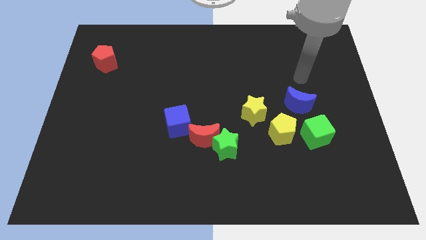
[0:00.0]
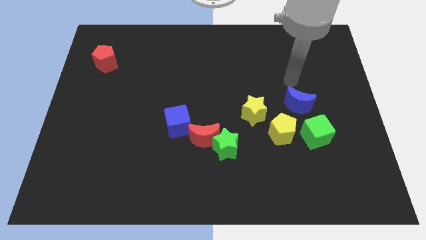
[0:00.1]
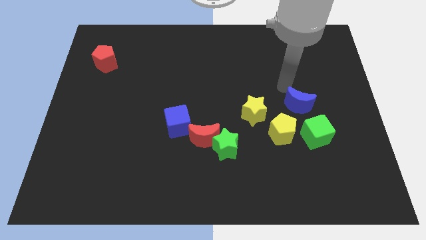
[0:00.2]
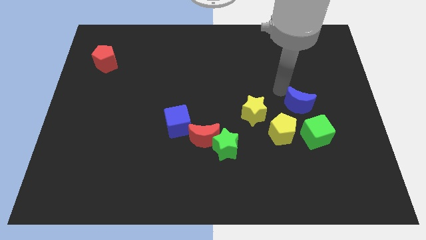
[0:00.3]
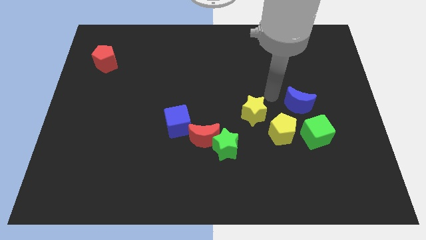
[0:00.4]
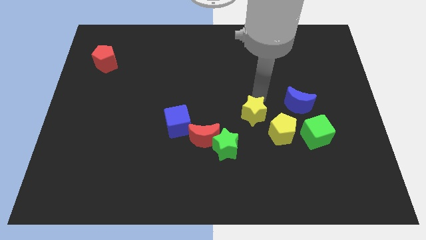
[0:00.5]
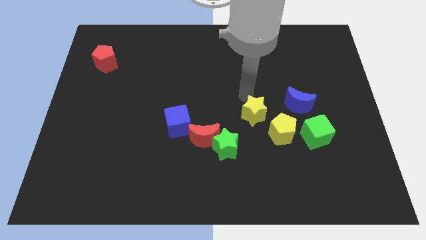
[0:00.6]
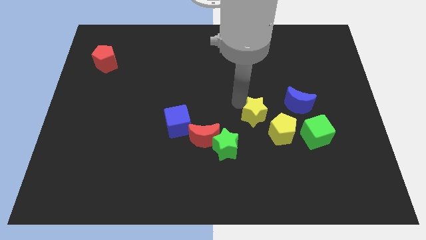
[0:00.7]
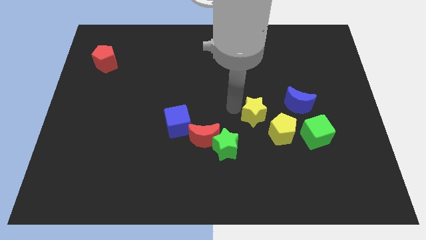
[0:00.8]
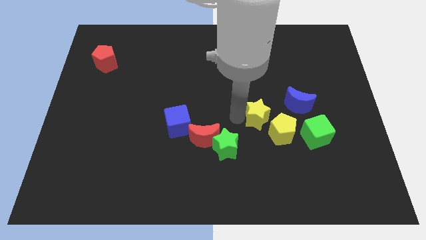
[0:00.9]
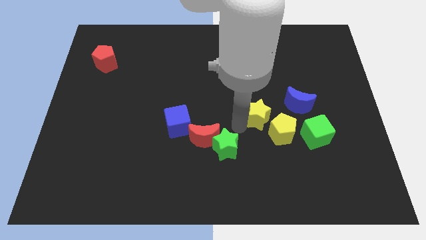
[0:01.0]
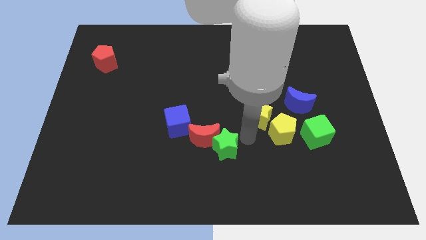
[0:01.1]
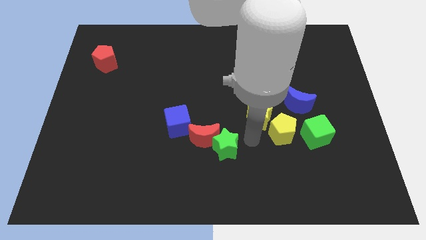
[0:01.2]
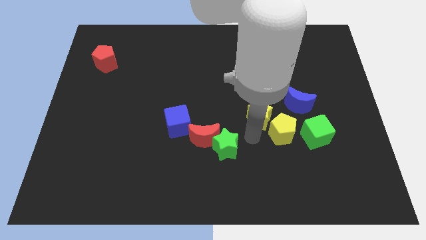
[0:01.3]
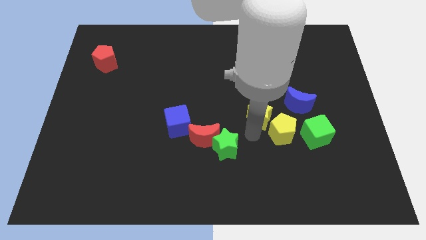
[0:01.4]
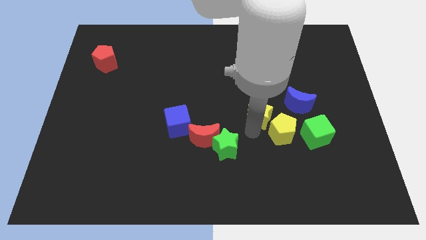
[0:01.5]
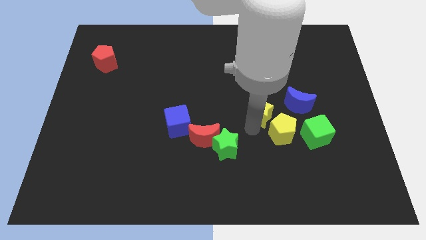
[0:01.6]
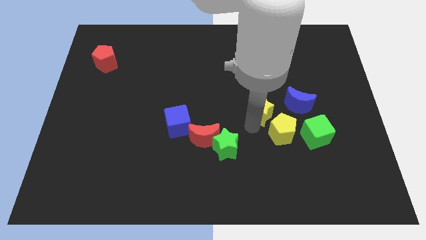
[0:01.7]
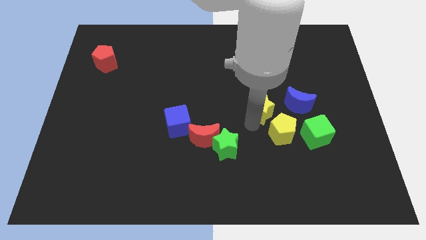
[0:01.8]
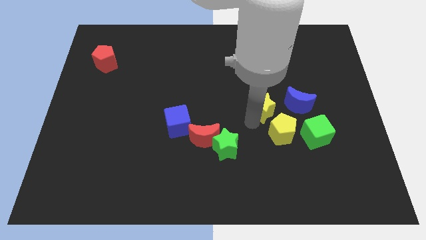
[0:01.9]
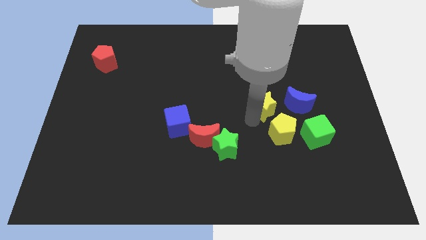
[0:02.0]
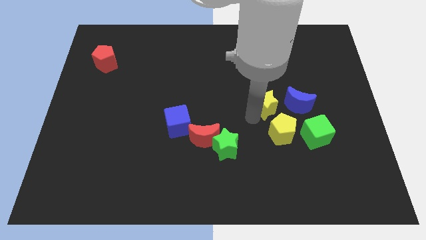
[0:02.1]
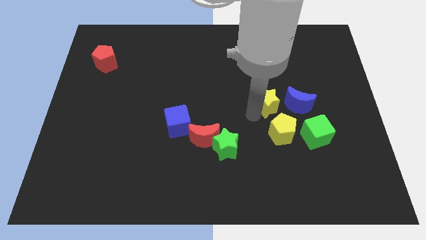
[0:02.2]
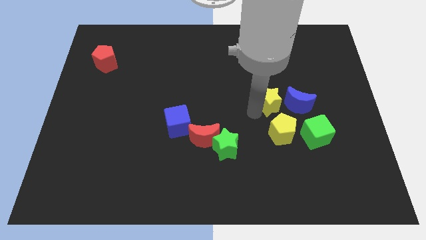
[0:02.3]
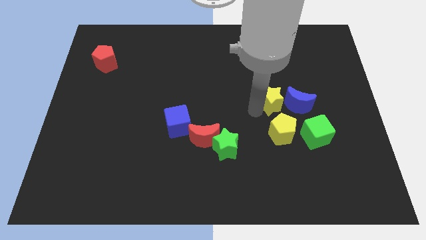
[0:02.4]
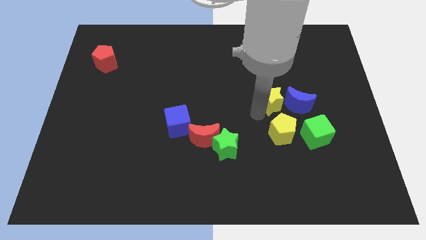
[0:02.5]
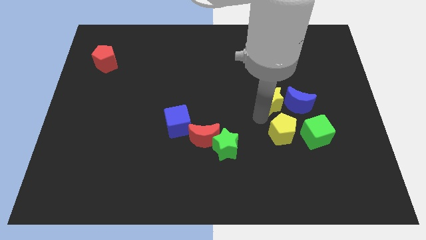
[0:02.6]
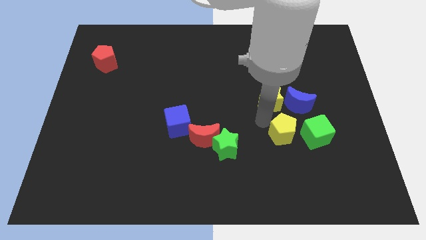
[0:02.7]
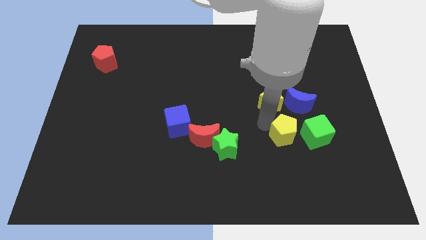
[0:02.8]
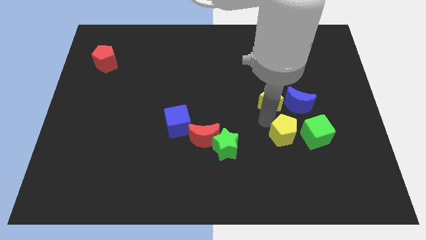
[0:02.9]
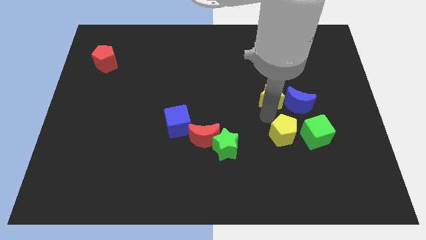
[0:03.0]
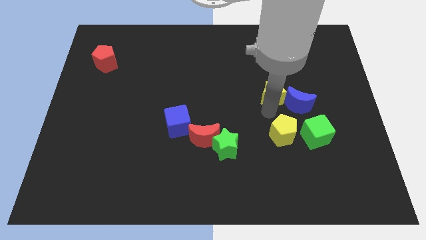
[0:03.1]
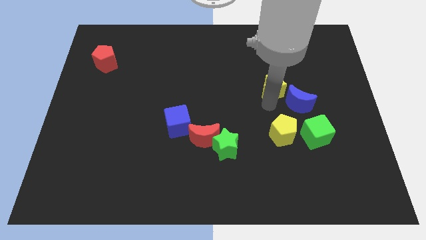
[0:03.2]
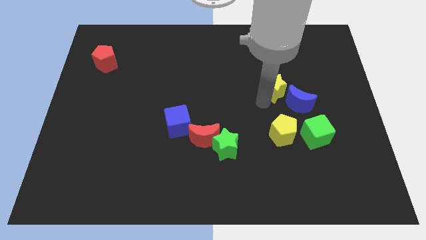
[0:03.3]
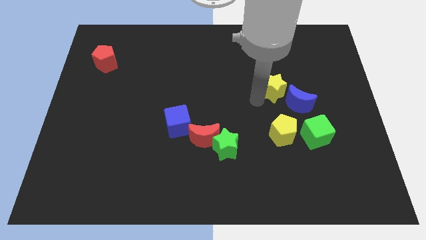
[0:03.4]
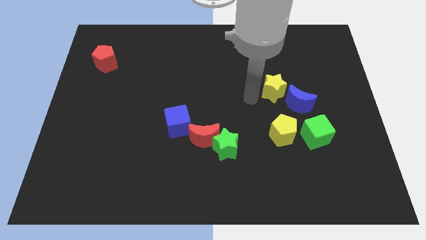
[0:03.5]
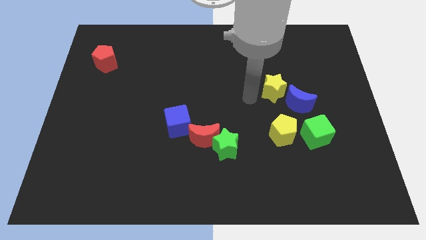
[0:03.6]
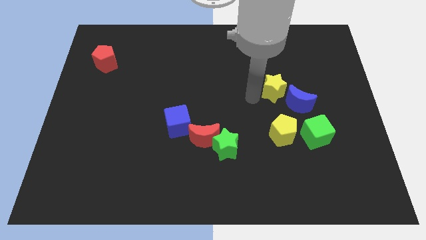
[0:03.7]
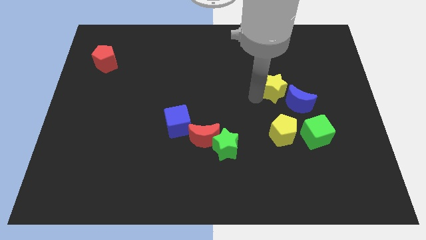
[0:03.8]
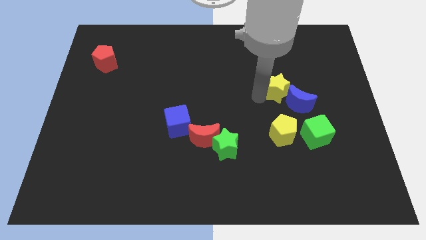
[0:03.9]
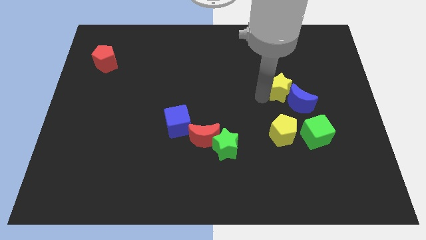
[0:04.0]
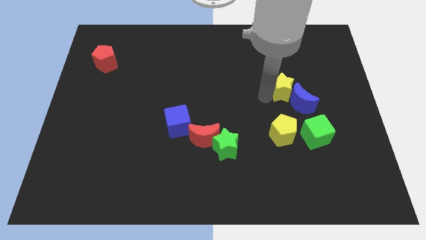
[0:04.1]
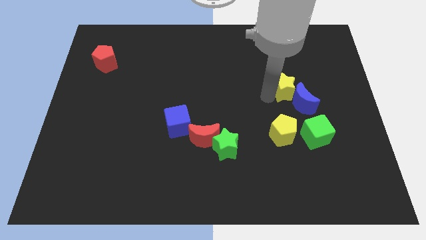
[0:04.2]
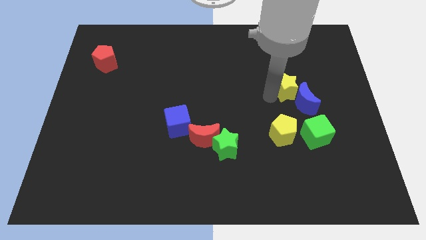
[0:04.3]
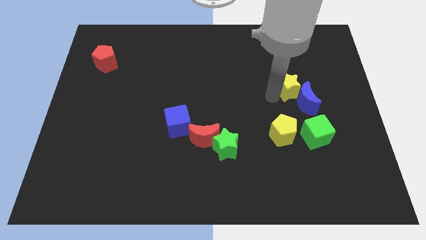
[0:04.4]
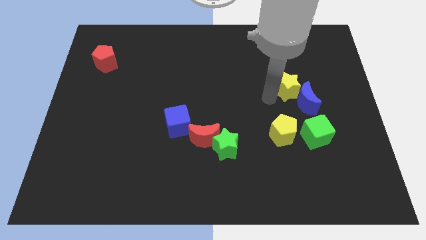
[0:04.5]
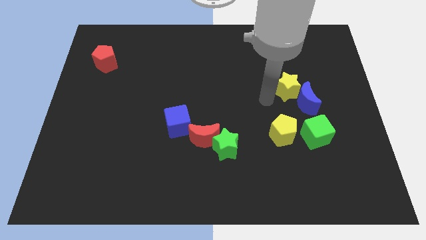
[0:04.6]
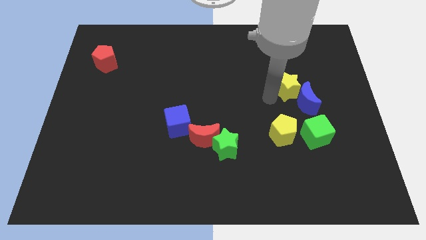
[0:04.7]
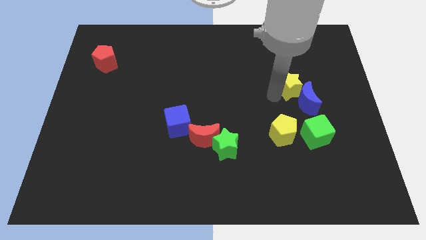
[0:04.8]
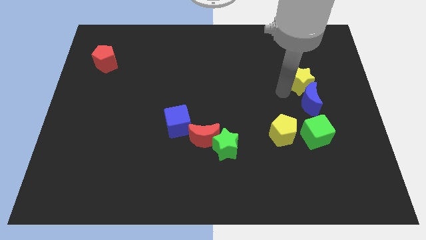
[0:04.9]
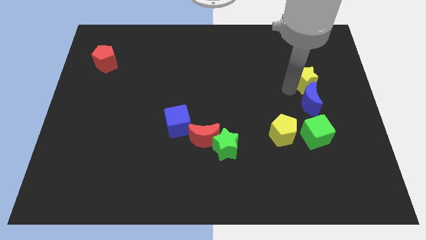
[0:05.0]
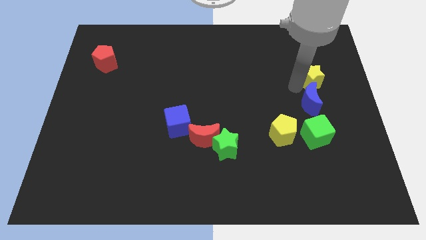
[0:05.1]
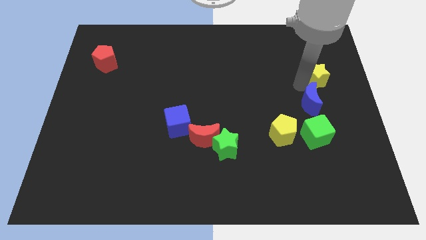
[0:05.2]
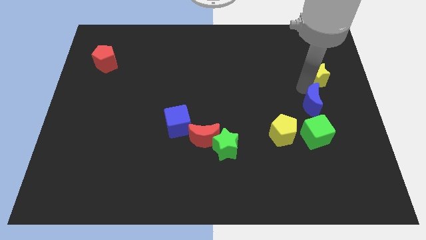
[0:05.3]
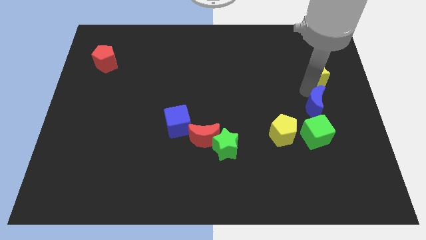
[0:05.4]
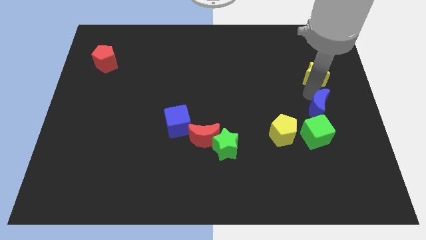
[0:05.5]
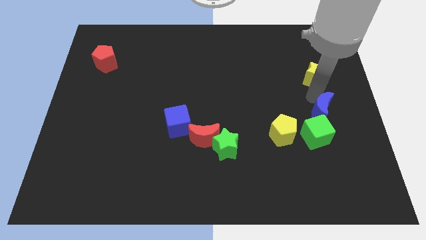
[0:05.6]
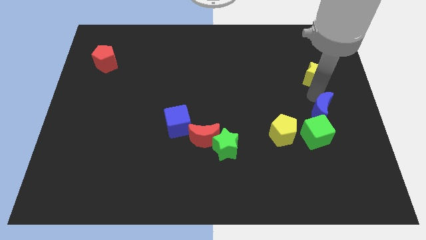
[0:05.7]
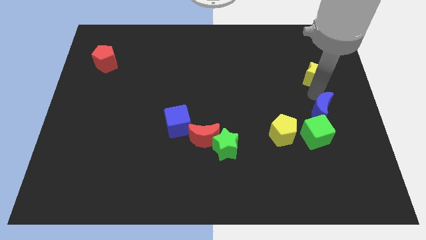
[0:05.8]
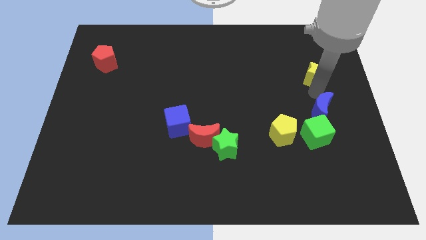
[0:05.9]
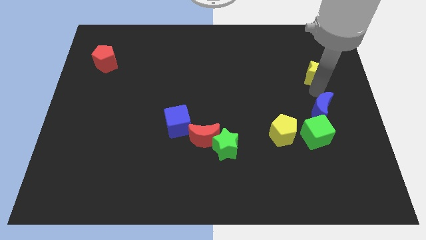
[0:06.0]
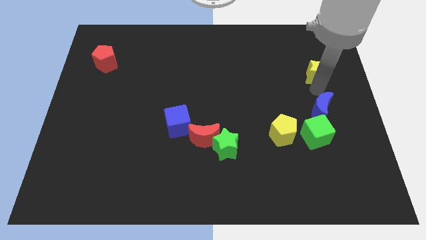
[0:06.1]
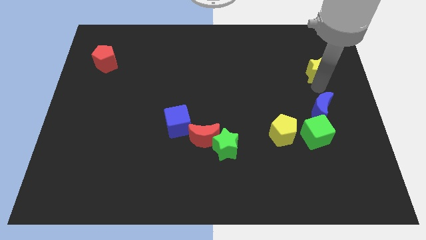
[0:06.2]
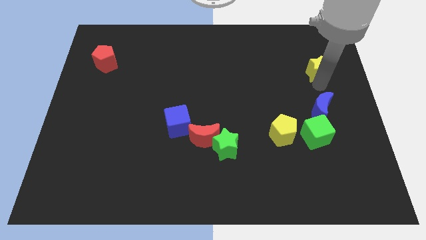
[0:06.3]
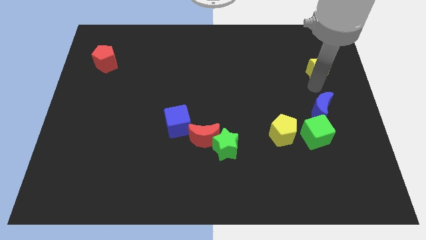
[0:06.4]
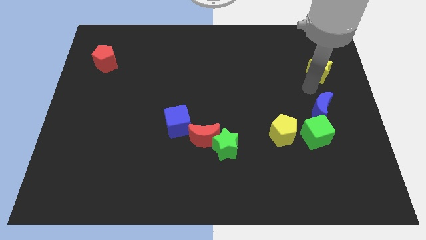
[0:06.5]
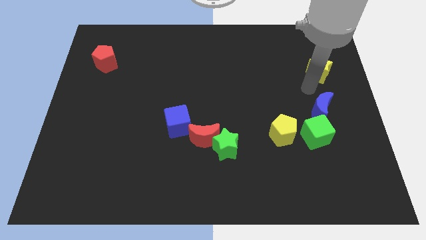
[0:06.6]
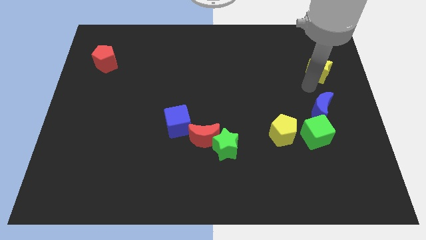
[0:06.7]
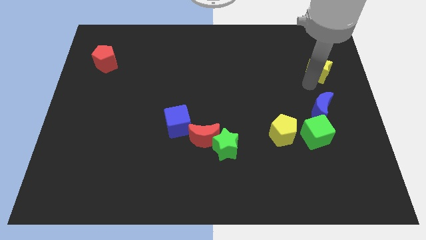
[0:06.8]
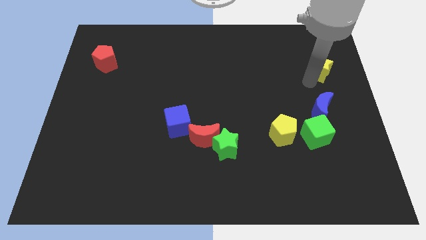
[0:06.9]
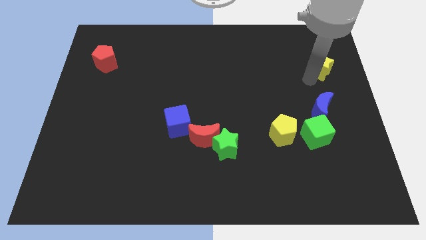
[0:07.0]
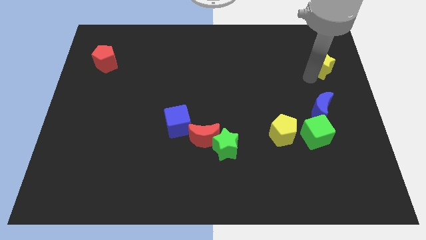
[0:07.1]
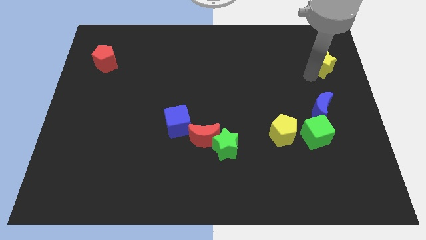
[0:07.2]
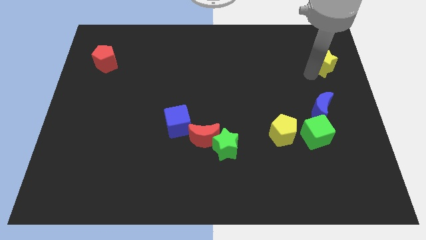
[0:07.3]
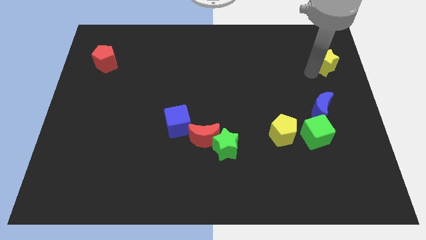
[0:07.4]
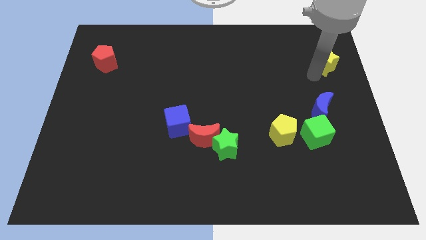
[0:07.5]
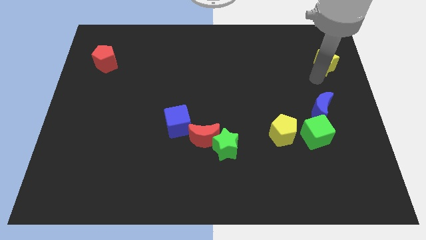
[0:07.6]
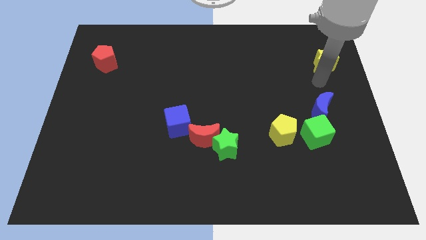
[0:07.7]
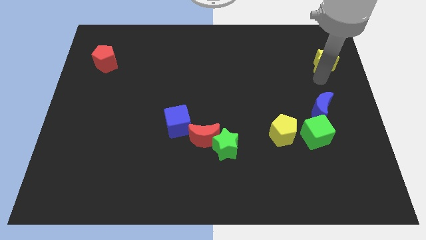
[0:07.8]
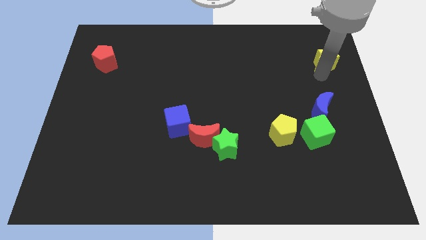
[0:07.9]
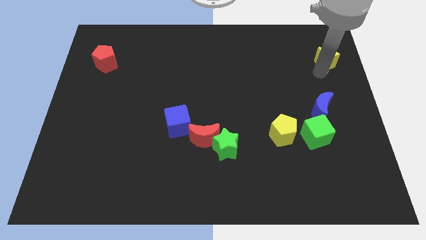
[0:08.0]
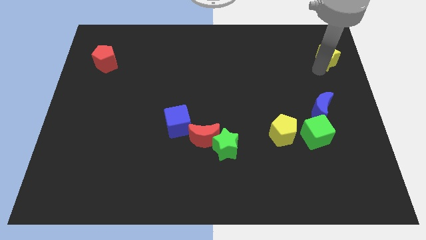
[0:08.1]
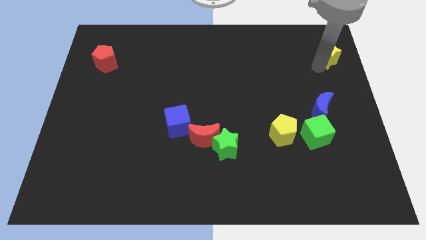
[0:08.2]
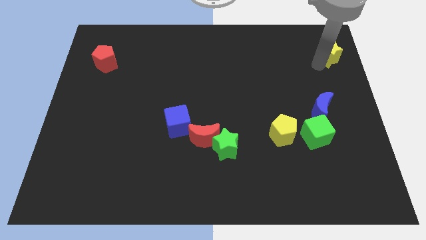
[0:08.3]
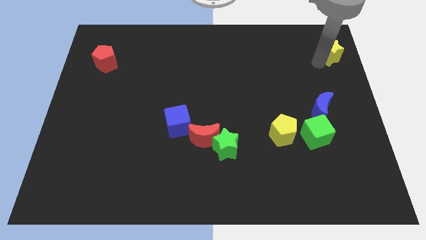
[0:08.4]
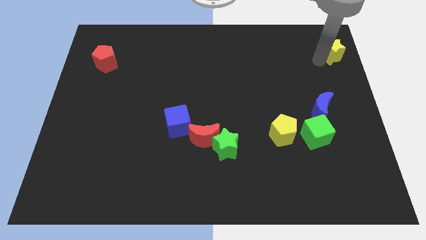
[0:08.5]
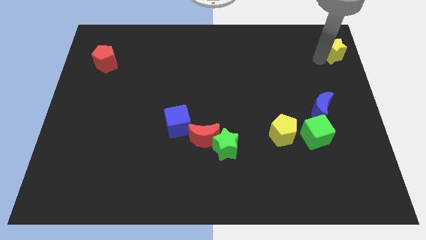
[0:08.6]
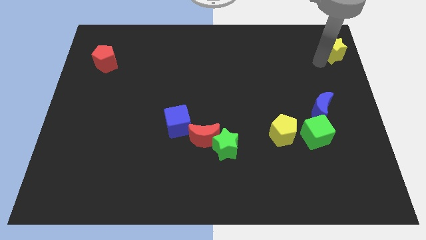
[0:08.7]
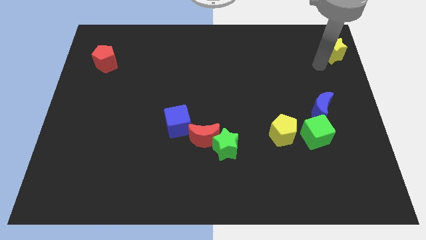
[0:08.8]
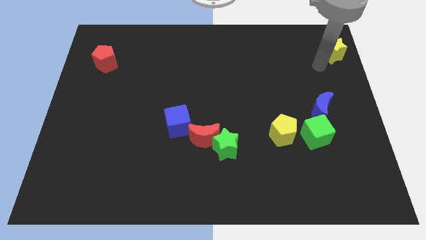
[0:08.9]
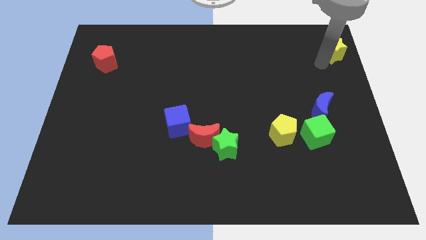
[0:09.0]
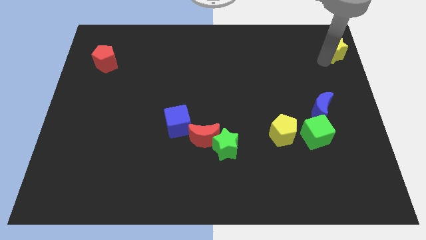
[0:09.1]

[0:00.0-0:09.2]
move the yellow star to the top right corner
